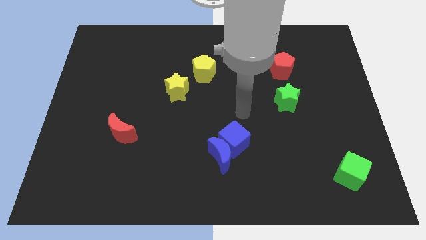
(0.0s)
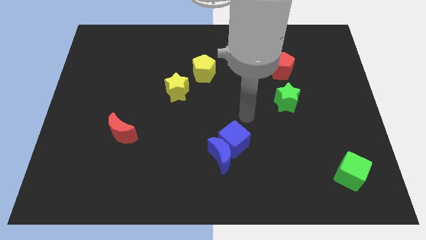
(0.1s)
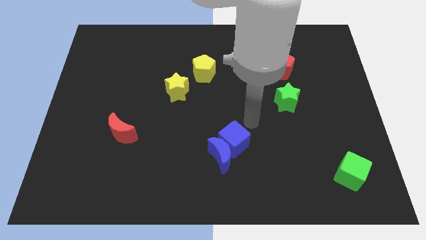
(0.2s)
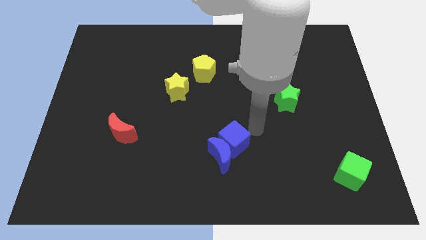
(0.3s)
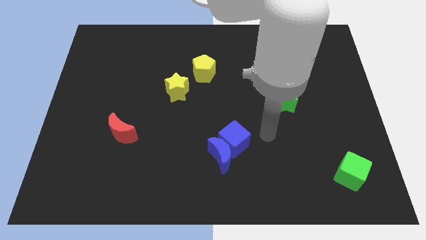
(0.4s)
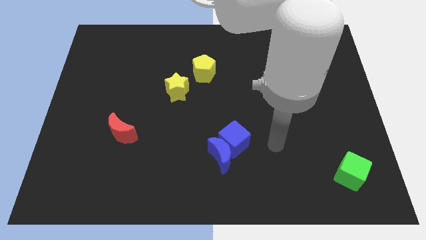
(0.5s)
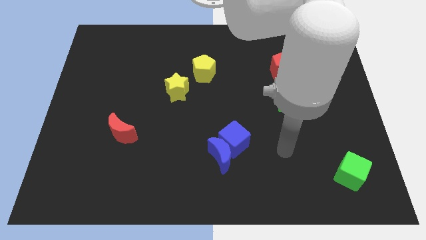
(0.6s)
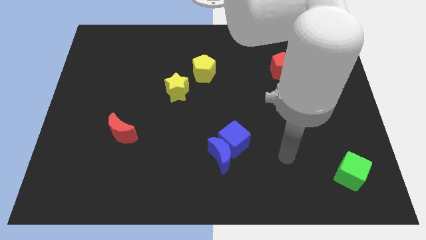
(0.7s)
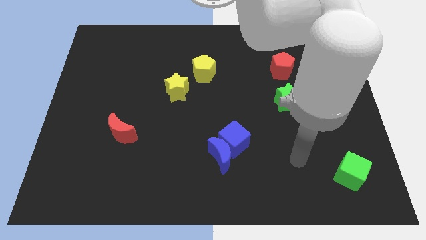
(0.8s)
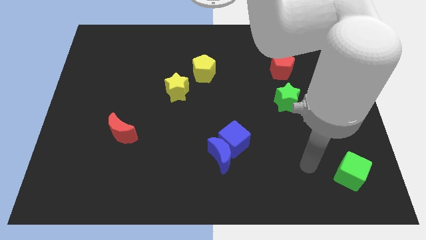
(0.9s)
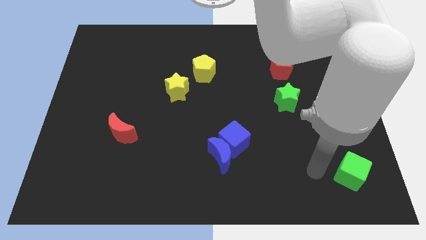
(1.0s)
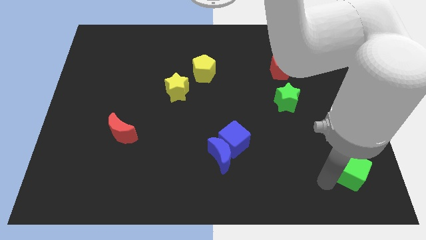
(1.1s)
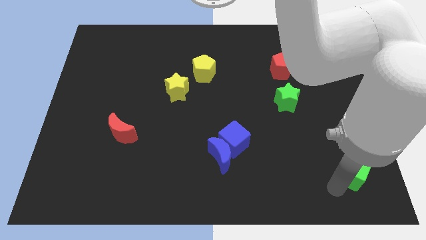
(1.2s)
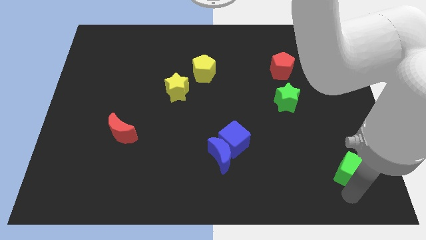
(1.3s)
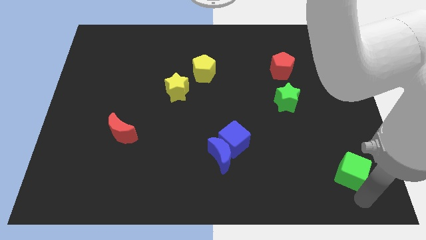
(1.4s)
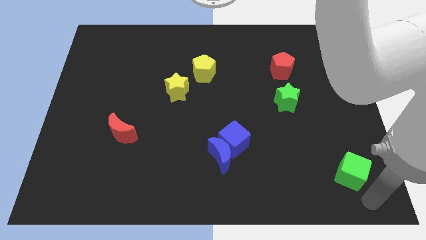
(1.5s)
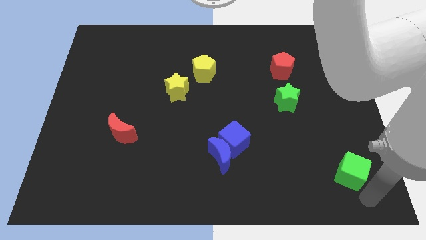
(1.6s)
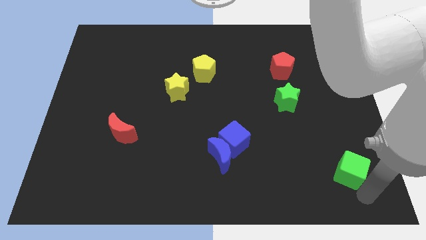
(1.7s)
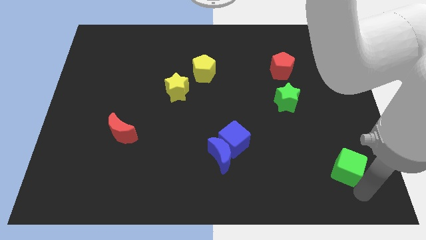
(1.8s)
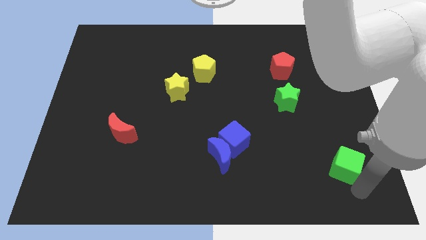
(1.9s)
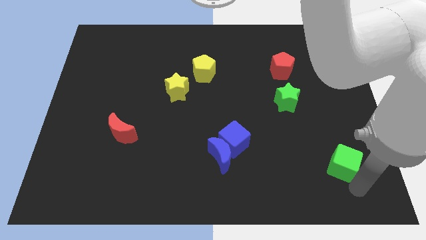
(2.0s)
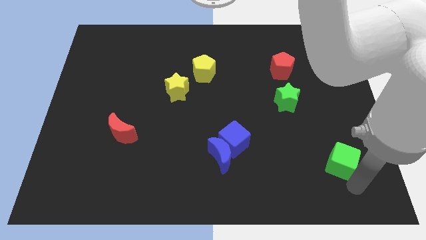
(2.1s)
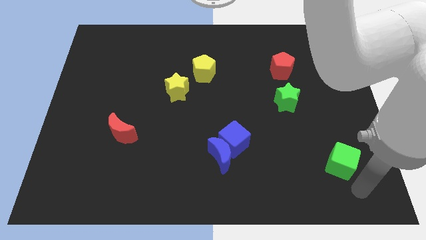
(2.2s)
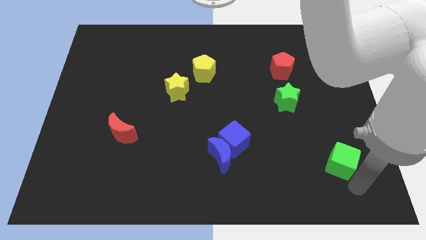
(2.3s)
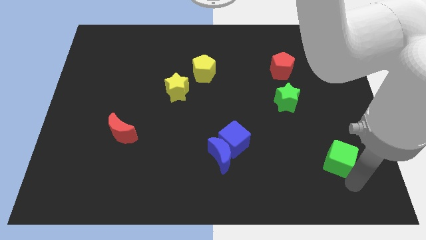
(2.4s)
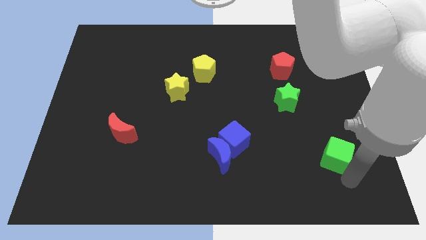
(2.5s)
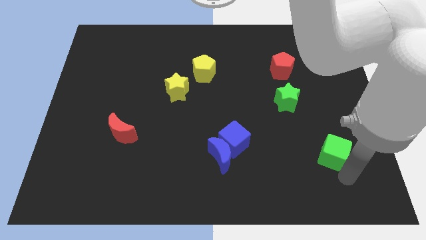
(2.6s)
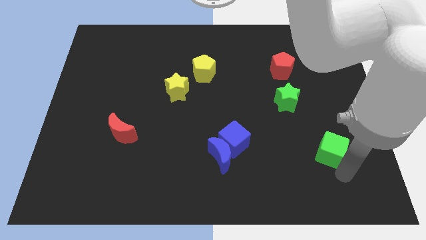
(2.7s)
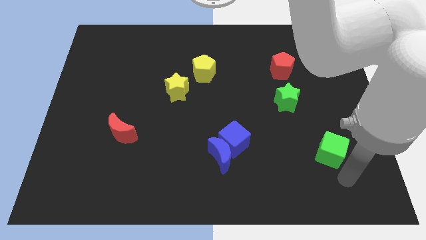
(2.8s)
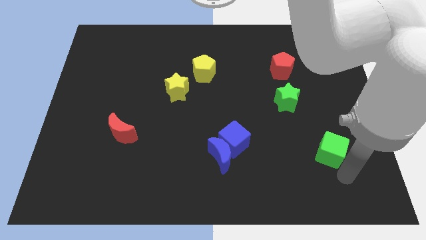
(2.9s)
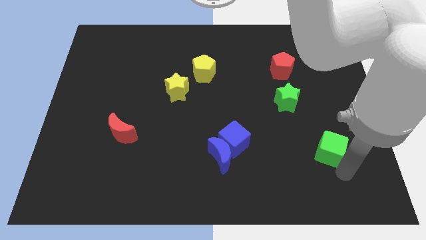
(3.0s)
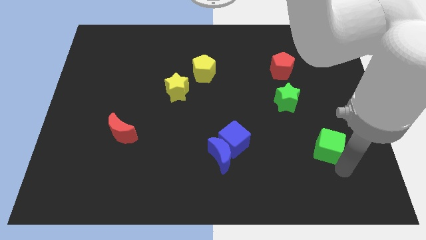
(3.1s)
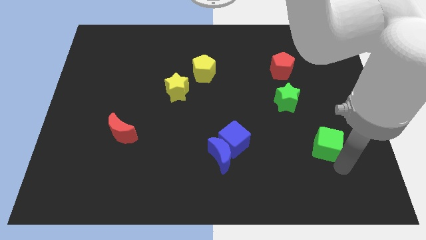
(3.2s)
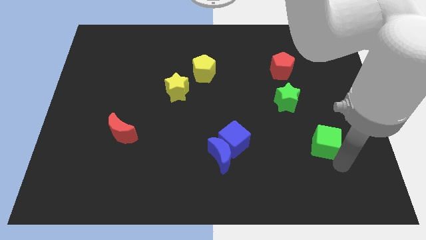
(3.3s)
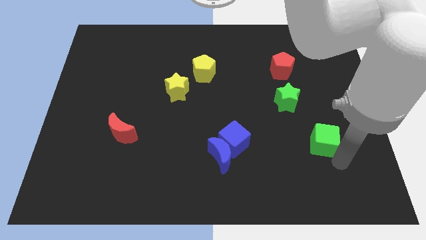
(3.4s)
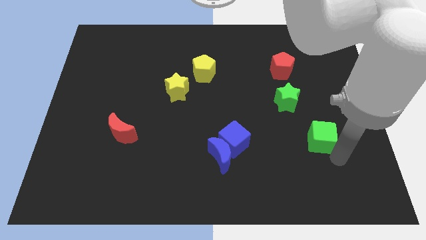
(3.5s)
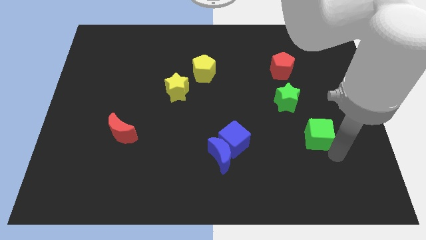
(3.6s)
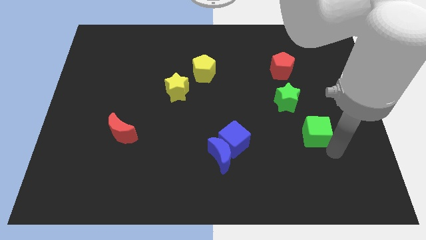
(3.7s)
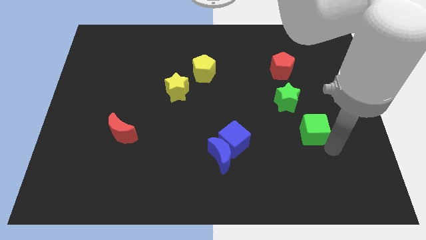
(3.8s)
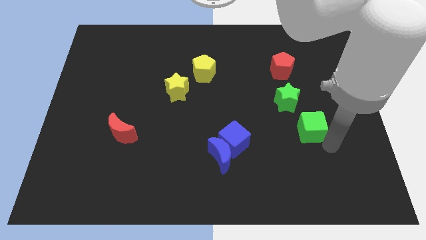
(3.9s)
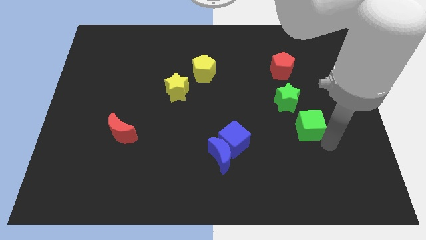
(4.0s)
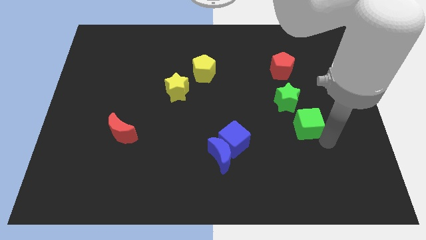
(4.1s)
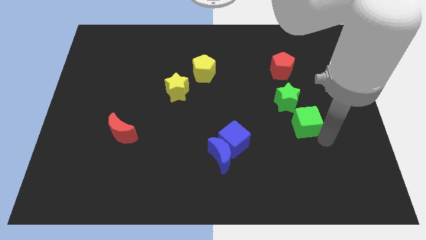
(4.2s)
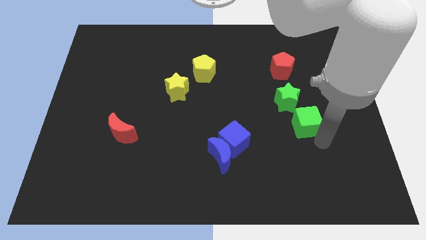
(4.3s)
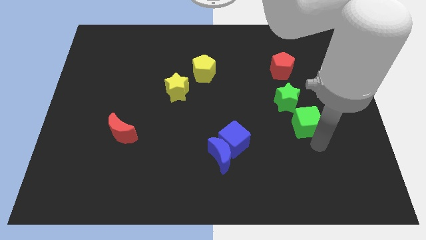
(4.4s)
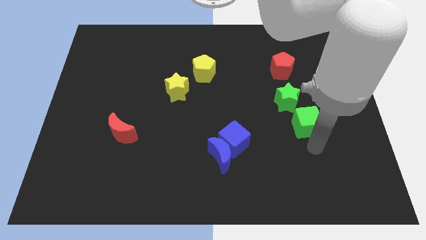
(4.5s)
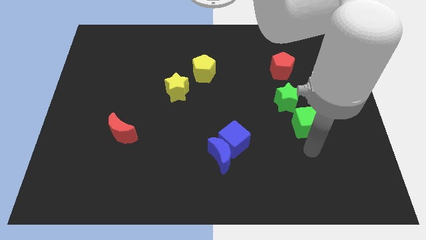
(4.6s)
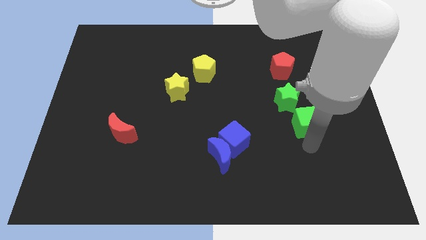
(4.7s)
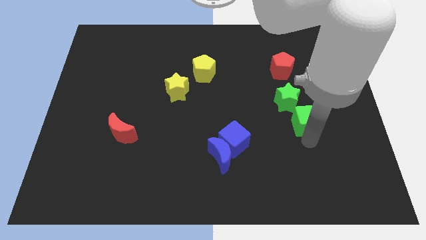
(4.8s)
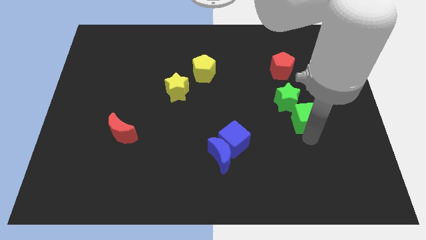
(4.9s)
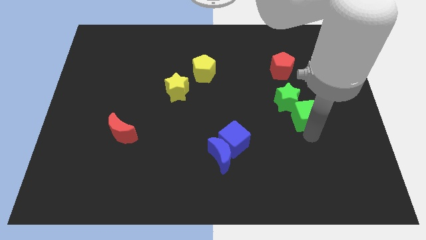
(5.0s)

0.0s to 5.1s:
put the green cube next to the green star

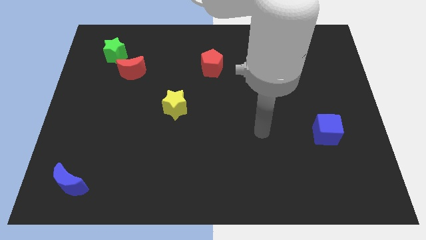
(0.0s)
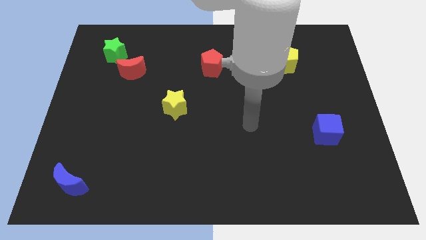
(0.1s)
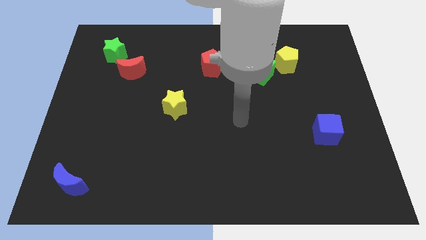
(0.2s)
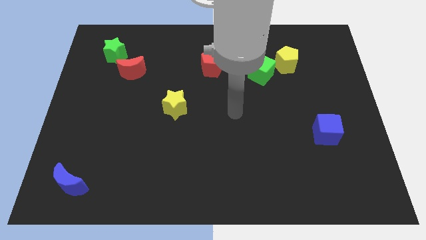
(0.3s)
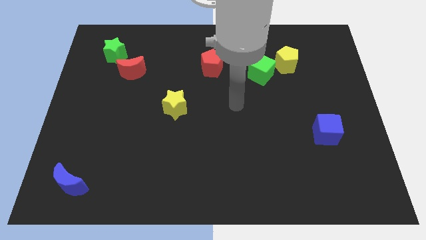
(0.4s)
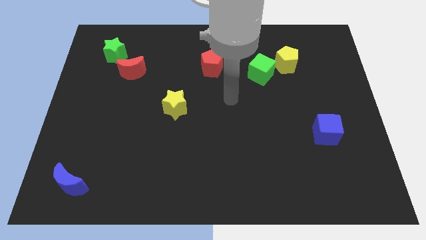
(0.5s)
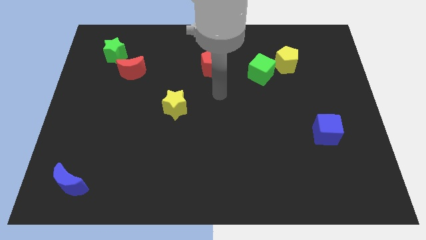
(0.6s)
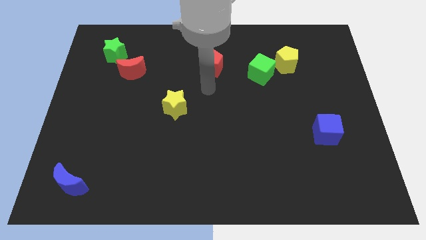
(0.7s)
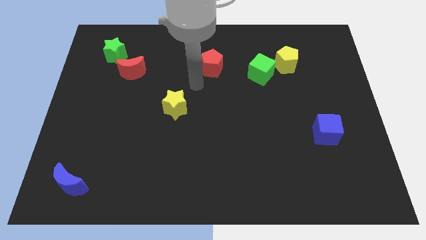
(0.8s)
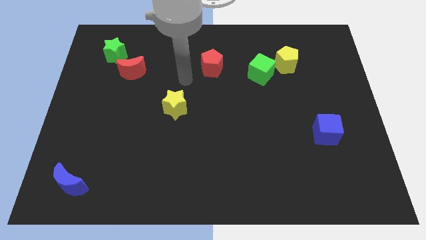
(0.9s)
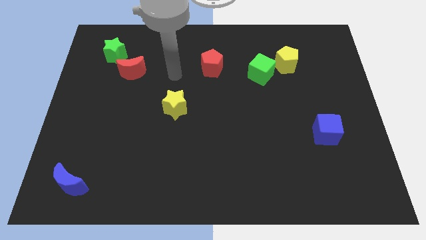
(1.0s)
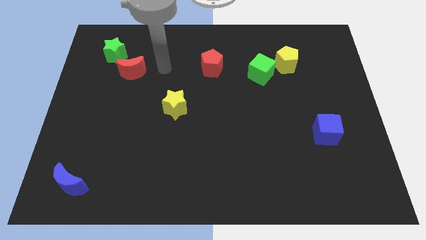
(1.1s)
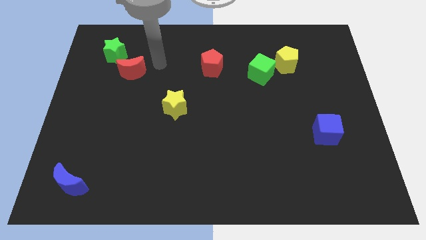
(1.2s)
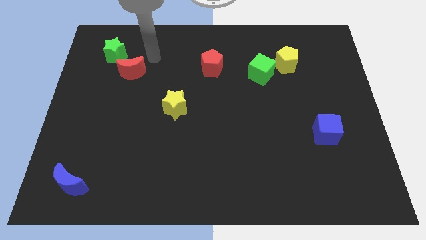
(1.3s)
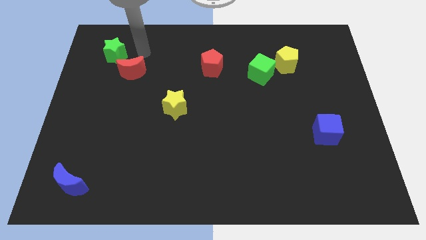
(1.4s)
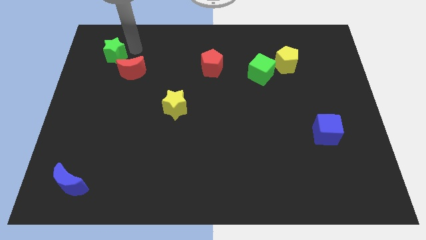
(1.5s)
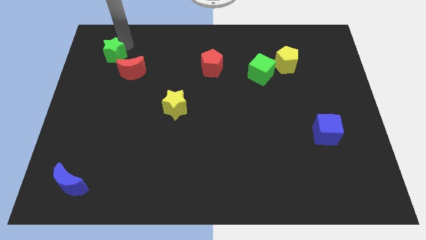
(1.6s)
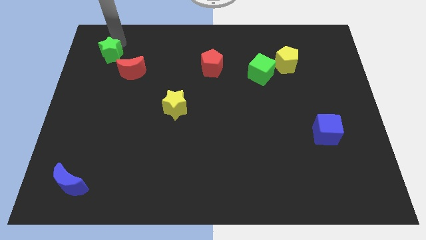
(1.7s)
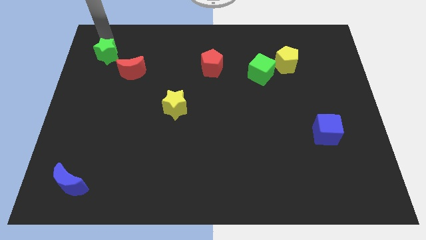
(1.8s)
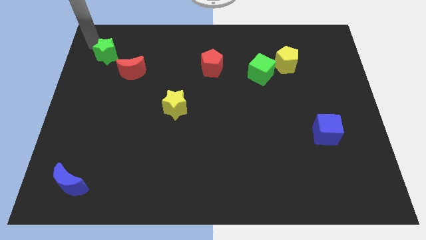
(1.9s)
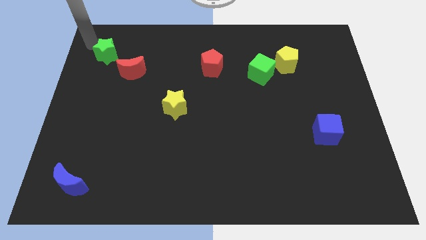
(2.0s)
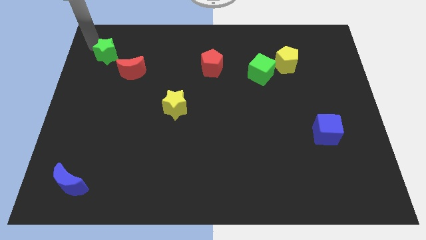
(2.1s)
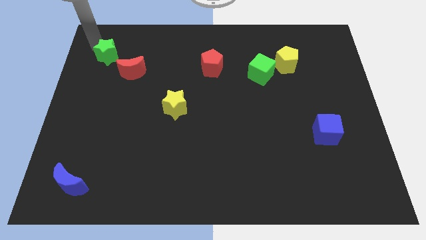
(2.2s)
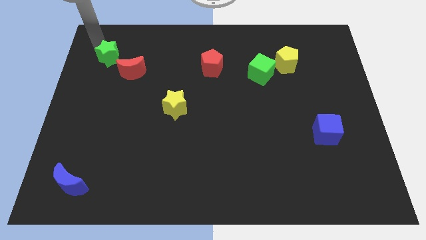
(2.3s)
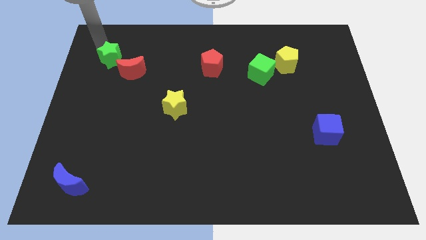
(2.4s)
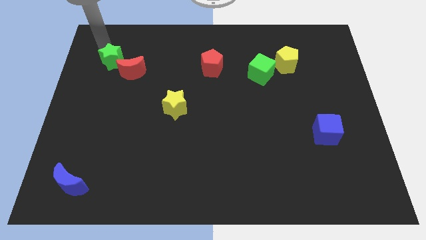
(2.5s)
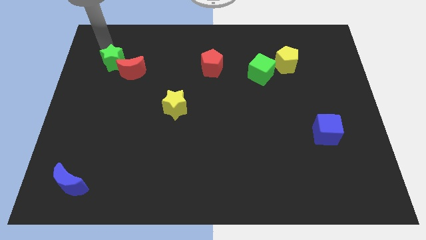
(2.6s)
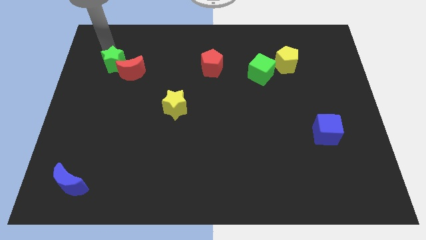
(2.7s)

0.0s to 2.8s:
move the green star towards the red moon
